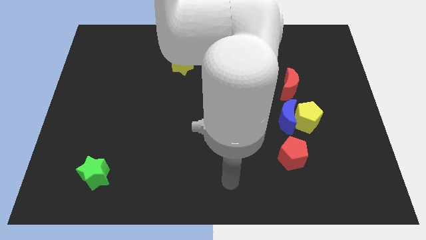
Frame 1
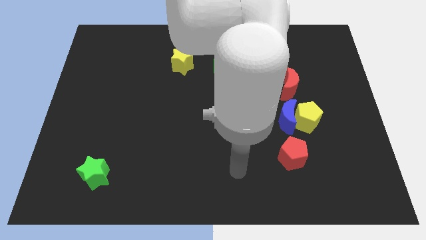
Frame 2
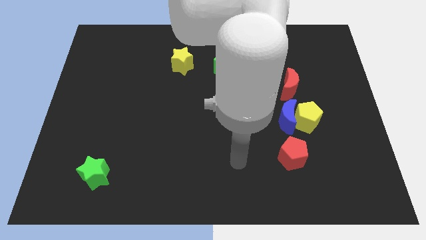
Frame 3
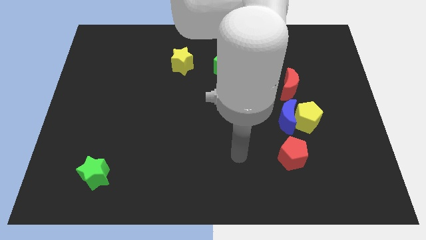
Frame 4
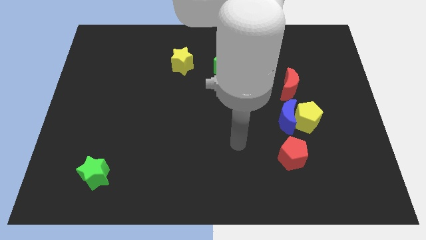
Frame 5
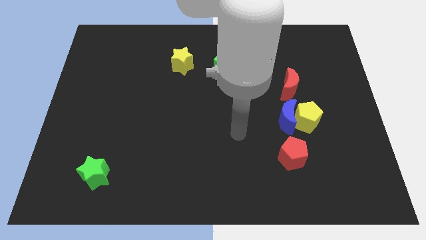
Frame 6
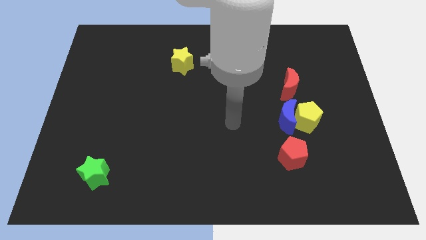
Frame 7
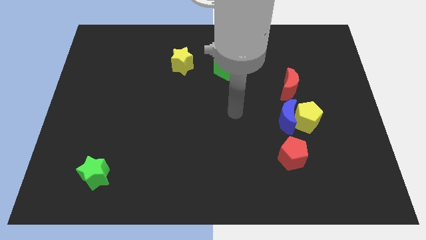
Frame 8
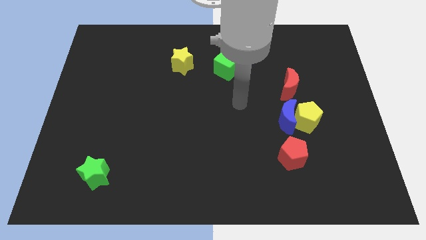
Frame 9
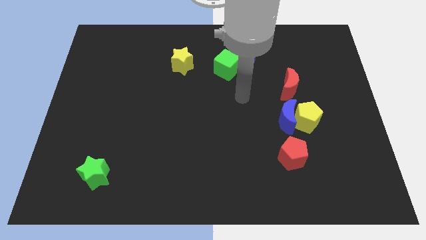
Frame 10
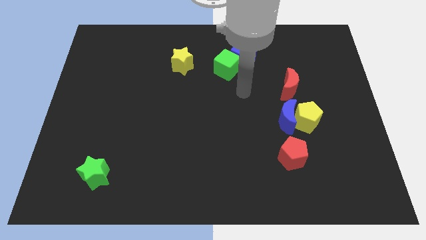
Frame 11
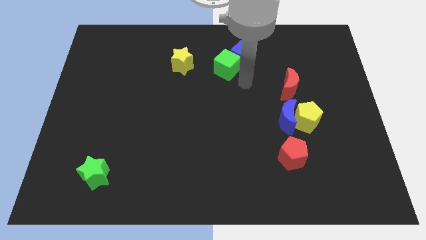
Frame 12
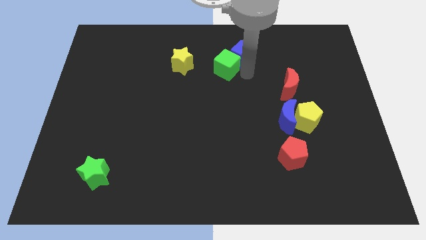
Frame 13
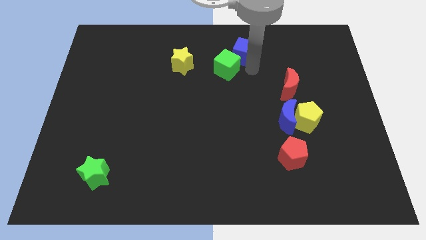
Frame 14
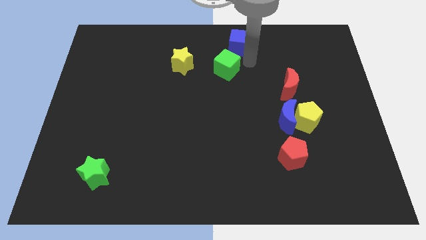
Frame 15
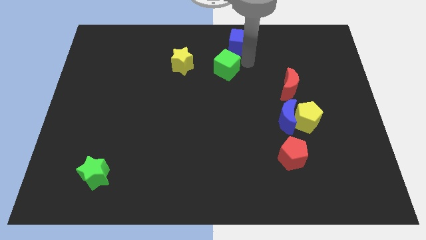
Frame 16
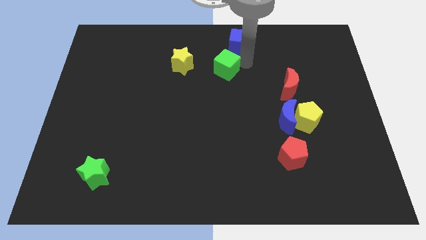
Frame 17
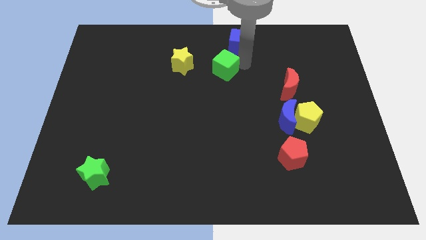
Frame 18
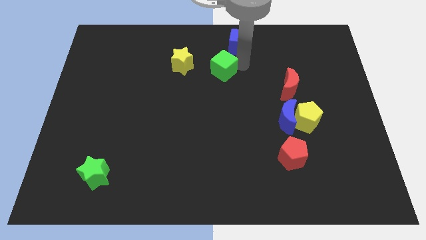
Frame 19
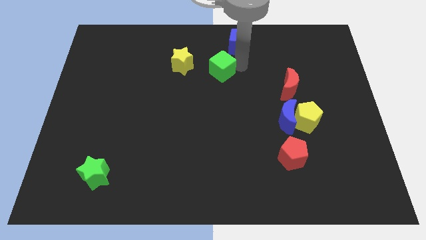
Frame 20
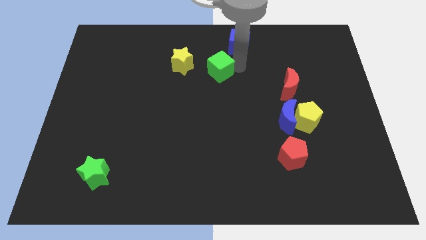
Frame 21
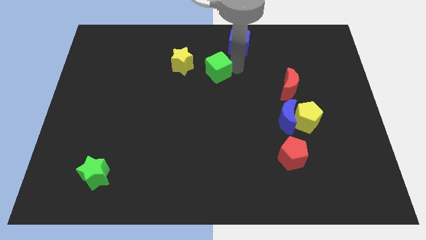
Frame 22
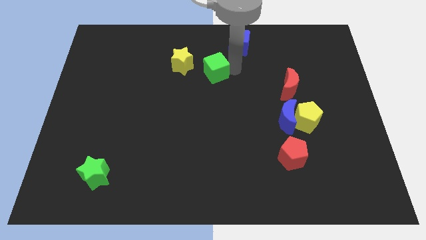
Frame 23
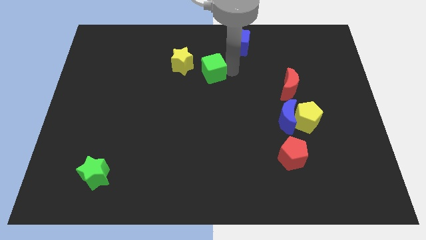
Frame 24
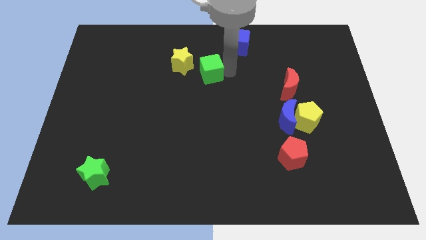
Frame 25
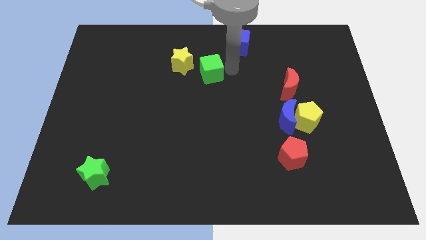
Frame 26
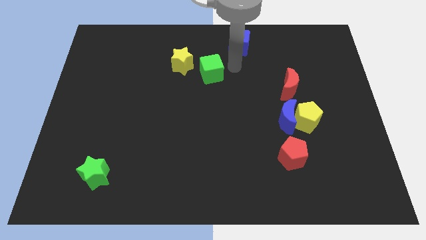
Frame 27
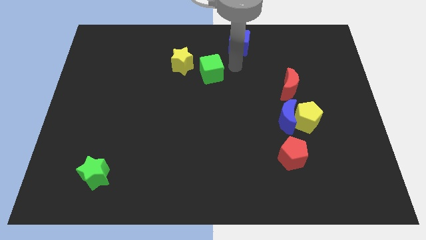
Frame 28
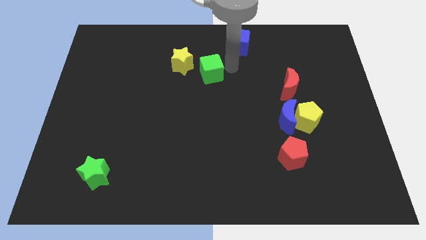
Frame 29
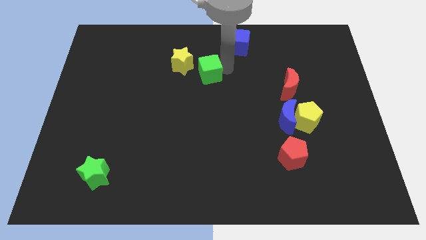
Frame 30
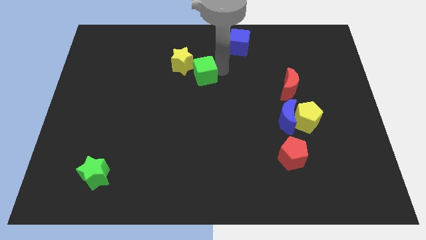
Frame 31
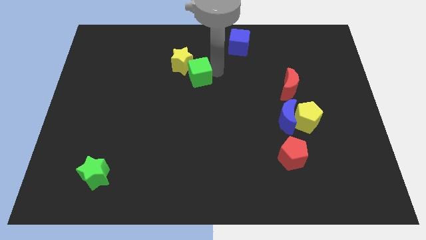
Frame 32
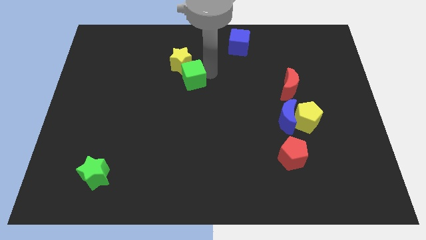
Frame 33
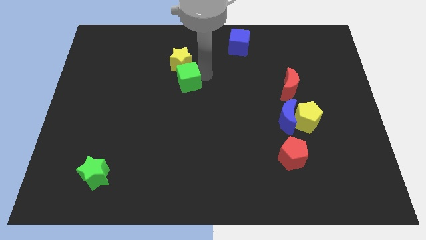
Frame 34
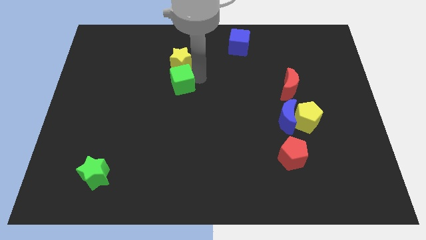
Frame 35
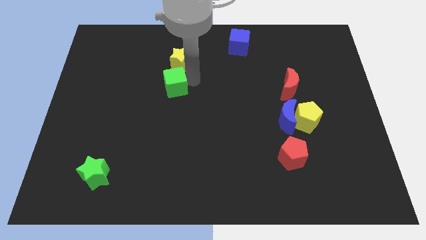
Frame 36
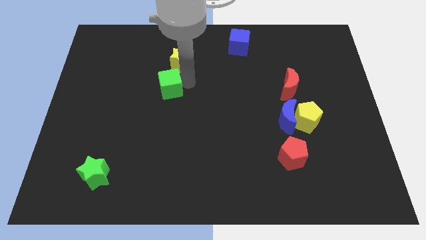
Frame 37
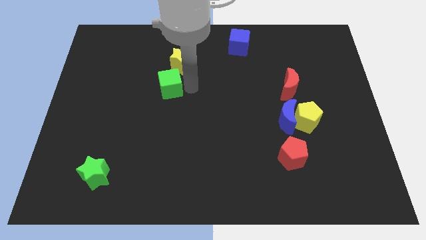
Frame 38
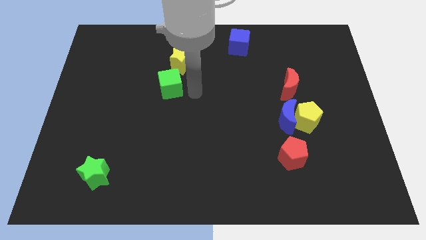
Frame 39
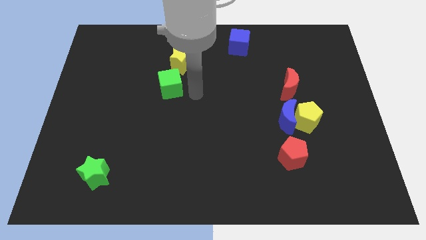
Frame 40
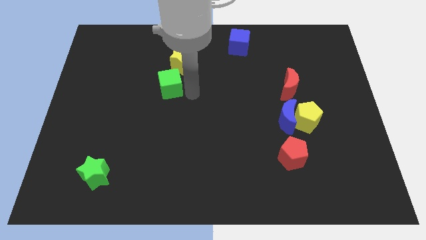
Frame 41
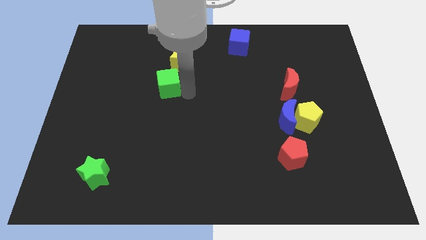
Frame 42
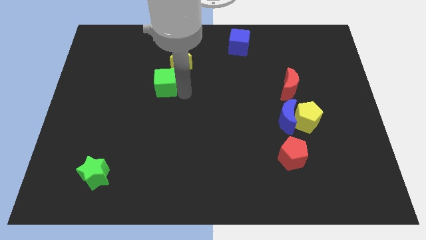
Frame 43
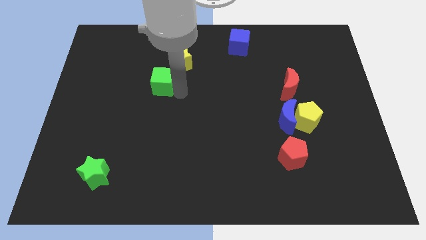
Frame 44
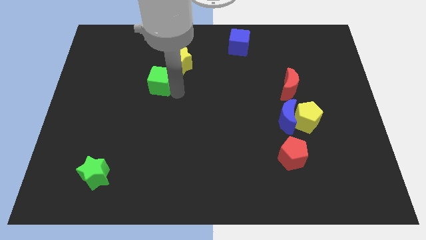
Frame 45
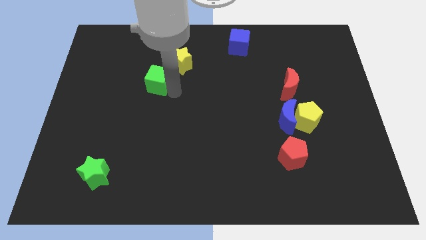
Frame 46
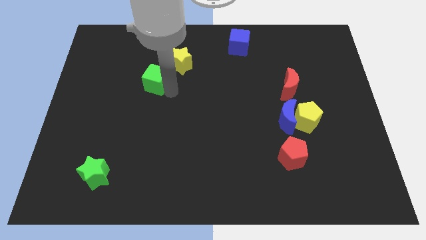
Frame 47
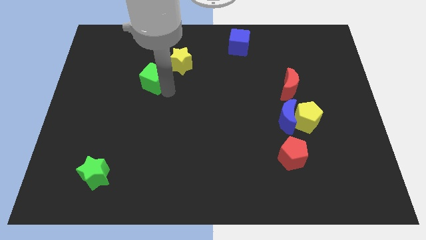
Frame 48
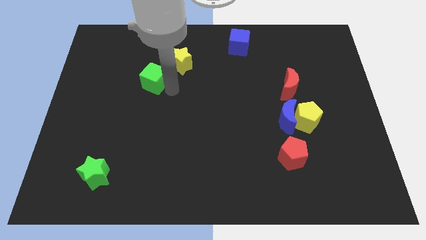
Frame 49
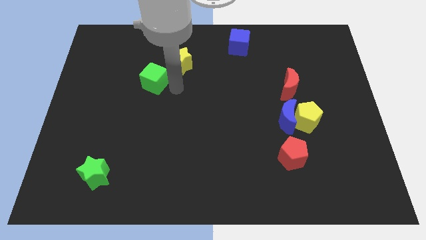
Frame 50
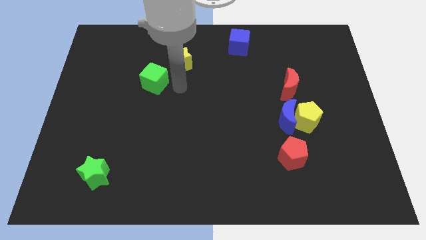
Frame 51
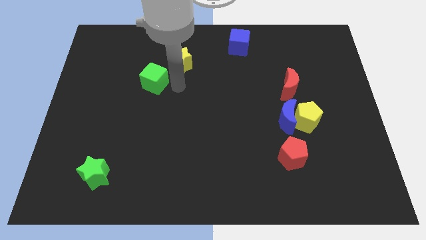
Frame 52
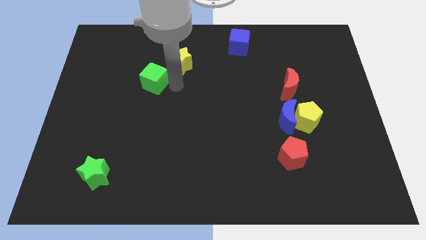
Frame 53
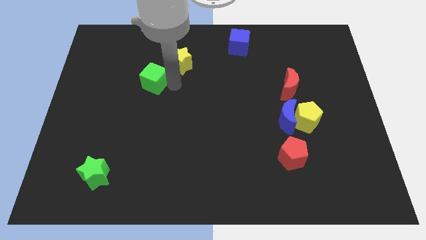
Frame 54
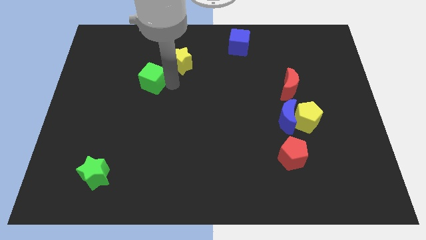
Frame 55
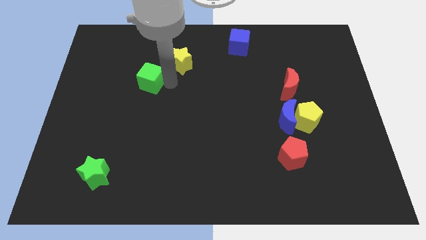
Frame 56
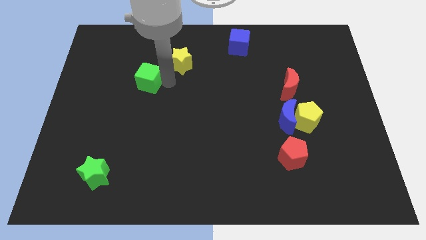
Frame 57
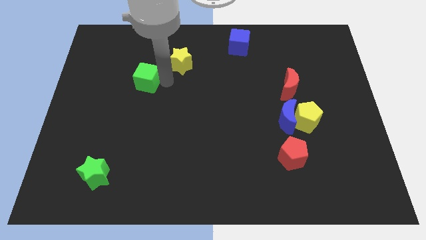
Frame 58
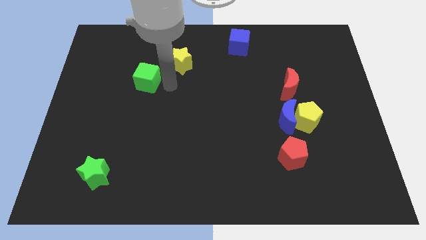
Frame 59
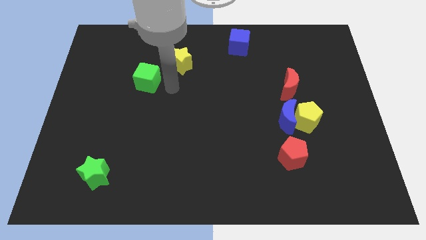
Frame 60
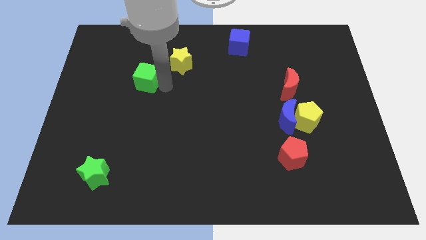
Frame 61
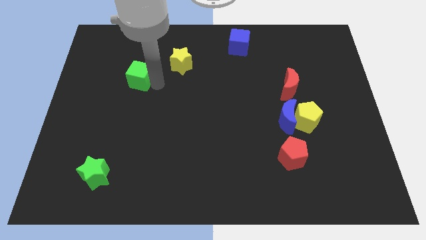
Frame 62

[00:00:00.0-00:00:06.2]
push the green cube to the left

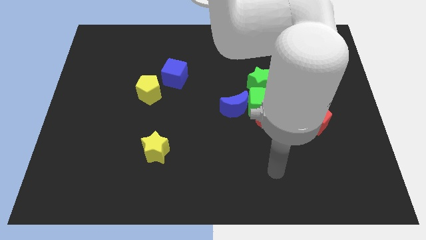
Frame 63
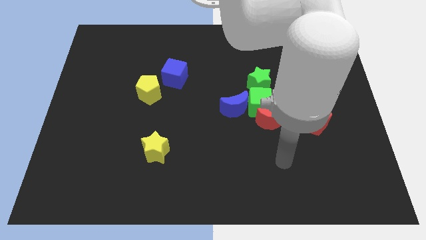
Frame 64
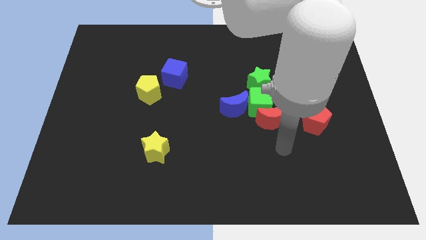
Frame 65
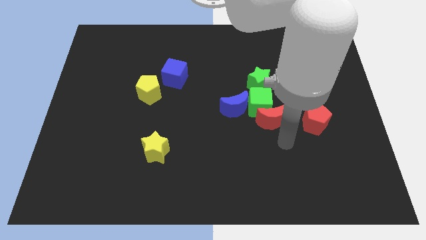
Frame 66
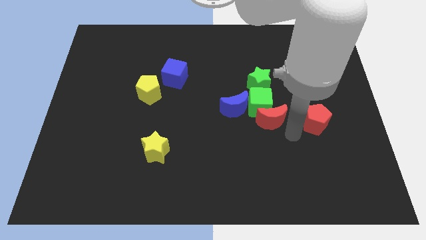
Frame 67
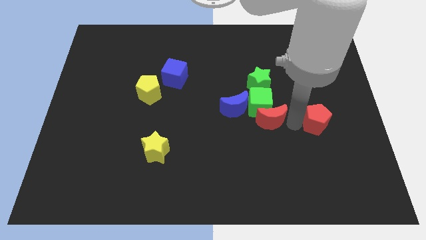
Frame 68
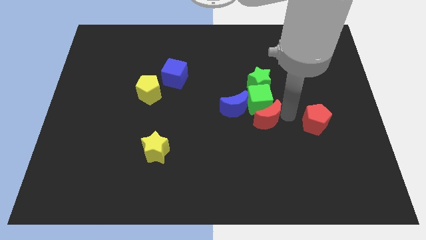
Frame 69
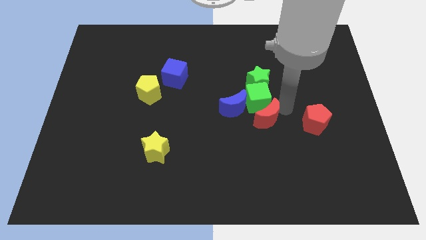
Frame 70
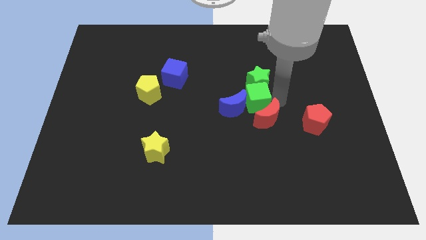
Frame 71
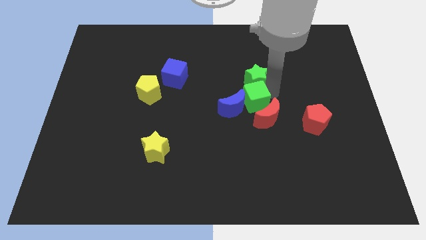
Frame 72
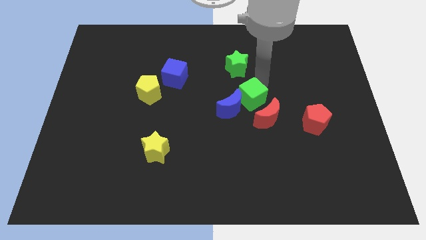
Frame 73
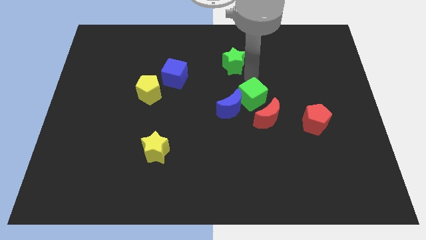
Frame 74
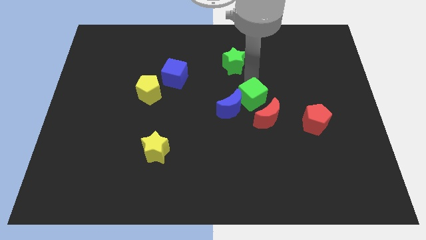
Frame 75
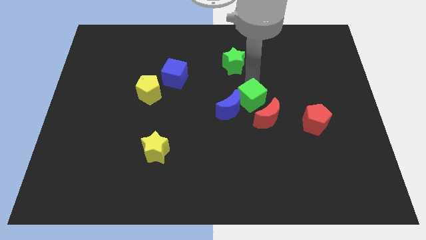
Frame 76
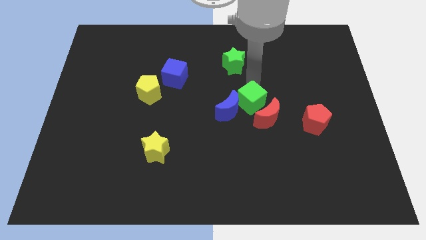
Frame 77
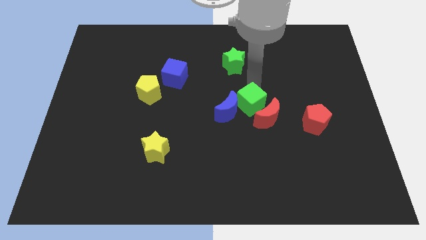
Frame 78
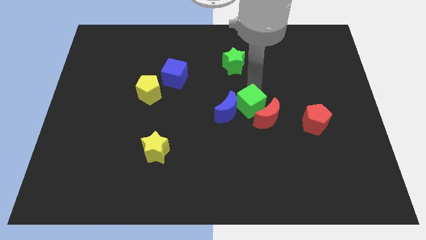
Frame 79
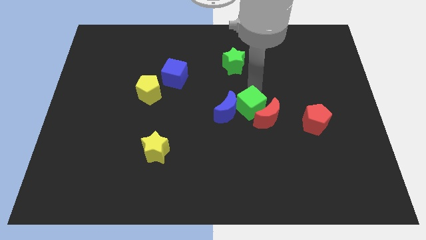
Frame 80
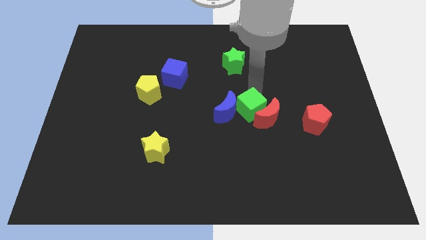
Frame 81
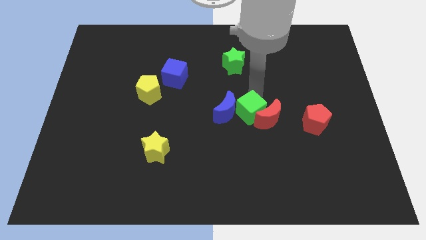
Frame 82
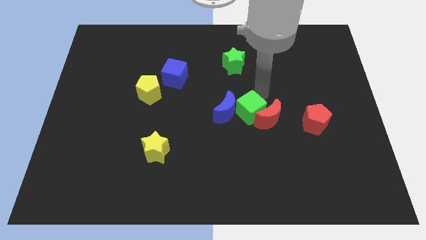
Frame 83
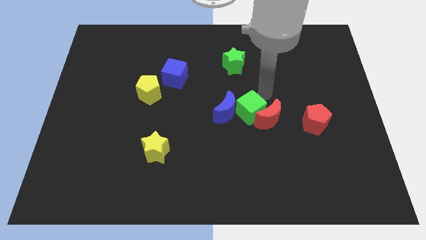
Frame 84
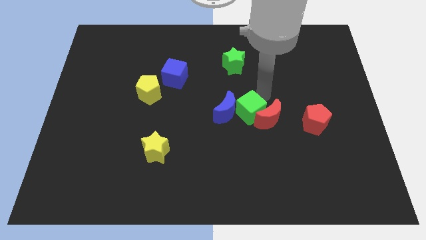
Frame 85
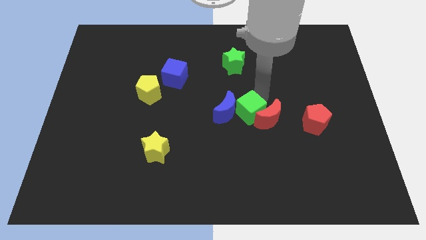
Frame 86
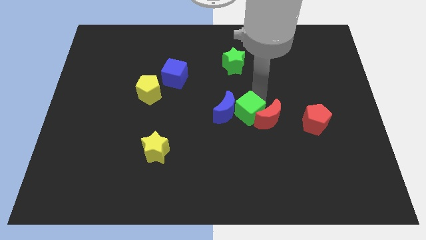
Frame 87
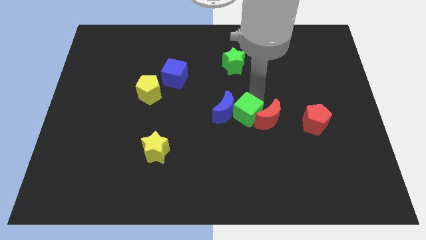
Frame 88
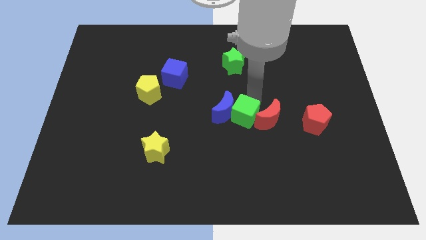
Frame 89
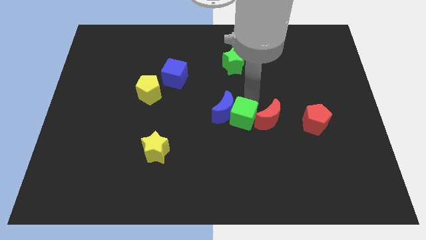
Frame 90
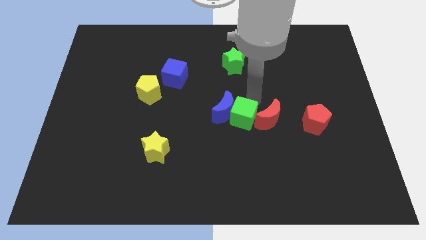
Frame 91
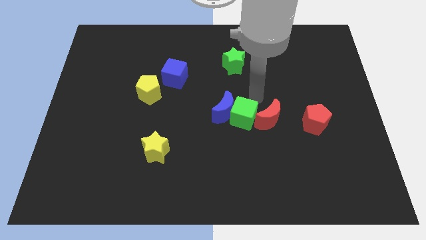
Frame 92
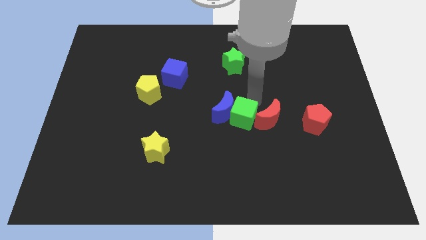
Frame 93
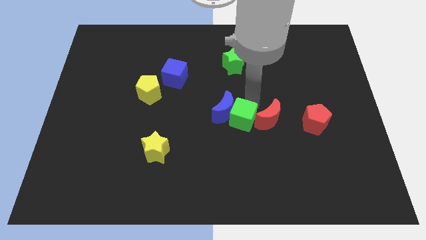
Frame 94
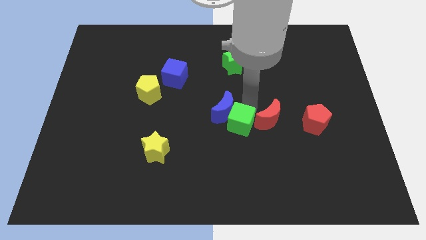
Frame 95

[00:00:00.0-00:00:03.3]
push the green cube slightly down and left diagonally
